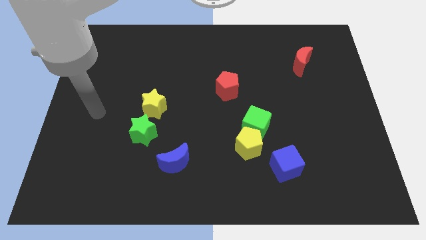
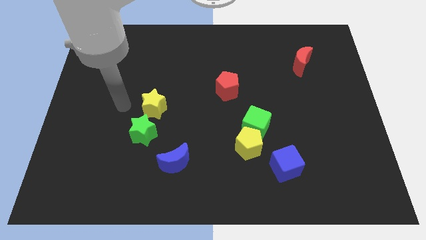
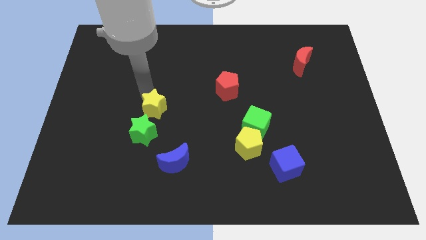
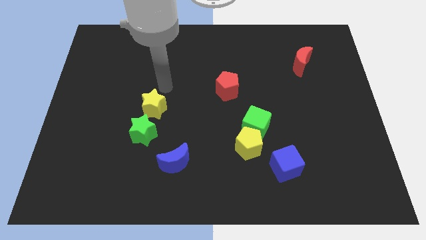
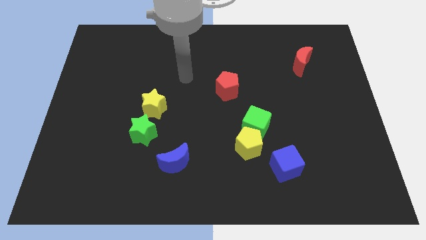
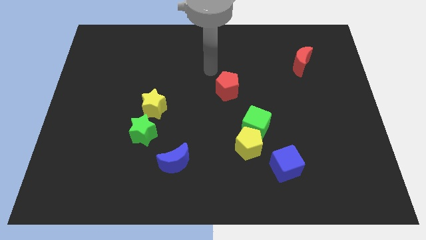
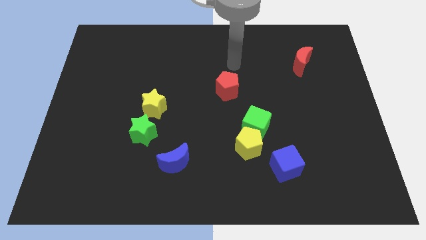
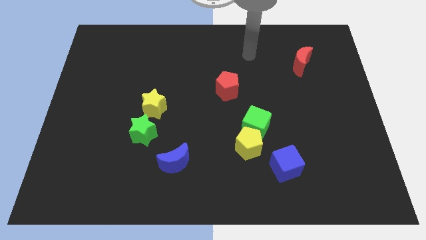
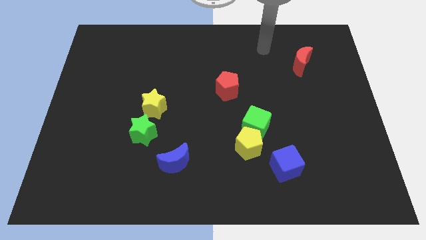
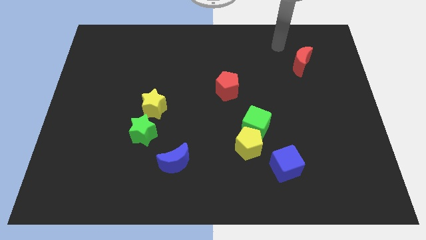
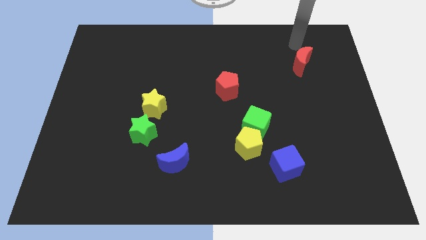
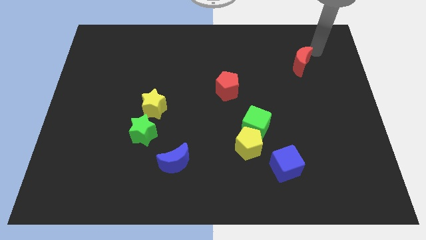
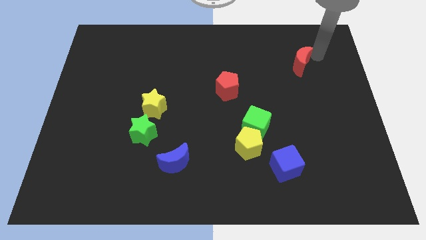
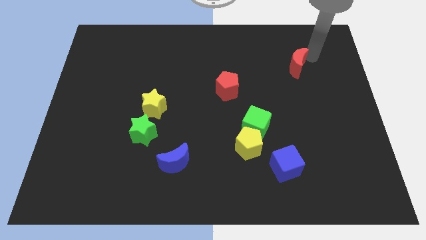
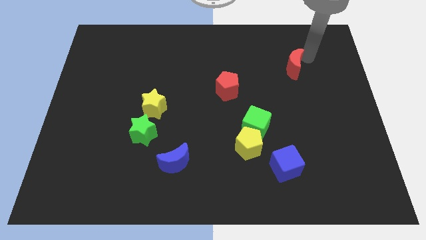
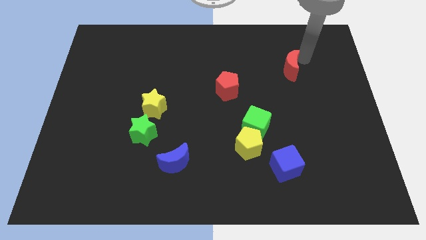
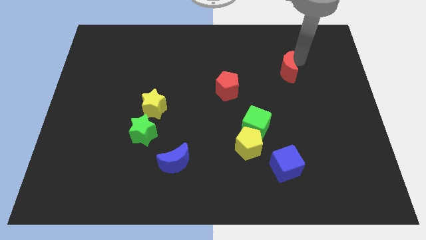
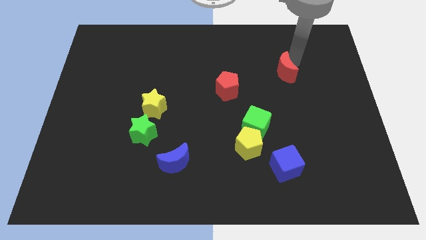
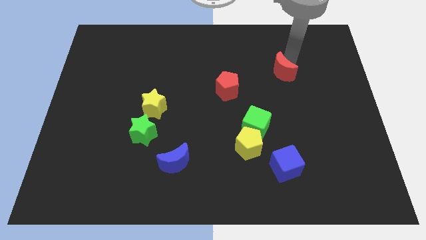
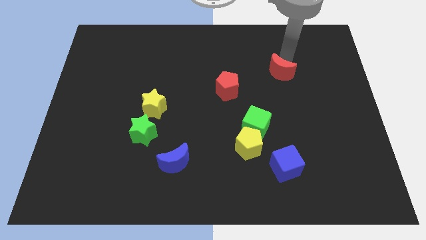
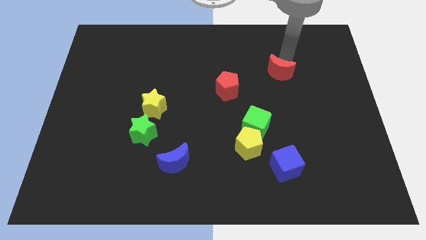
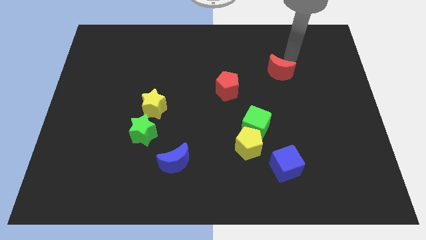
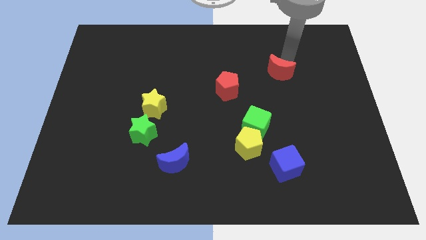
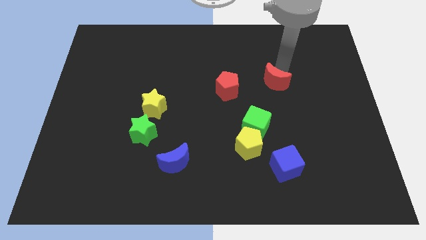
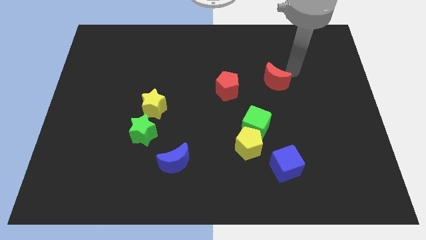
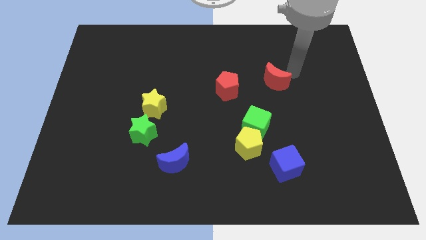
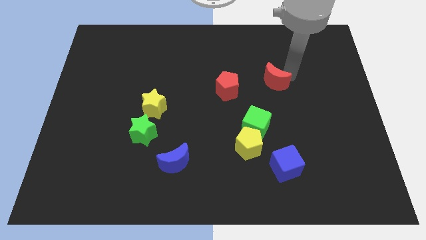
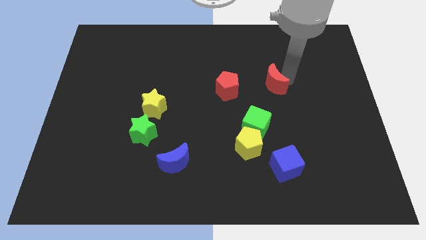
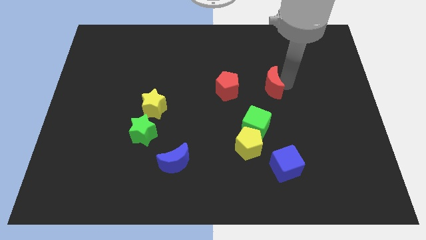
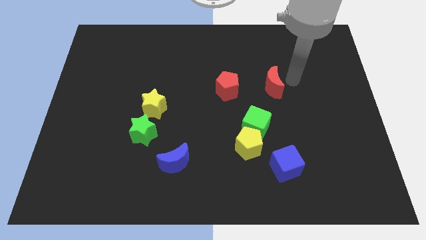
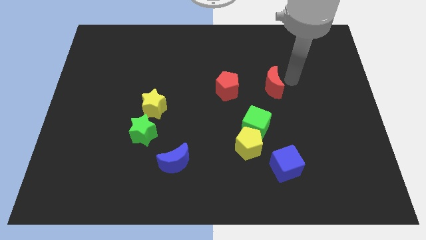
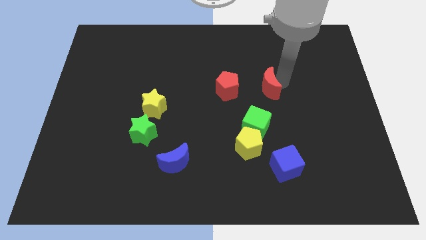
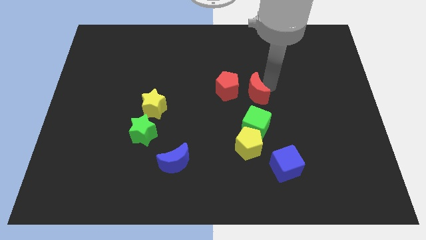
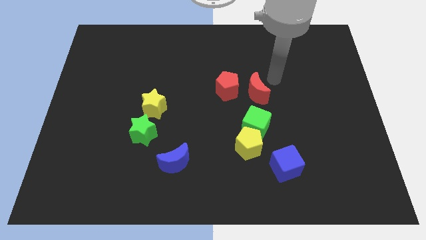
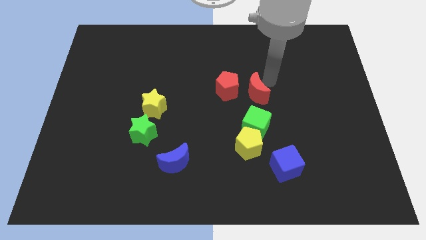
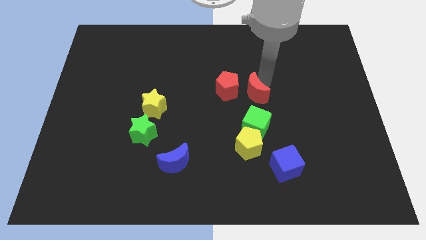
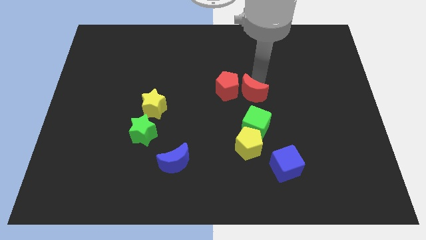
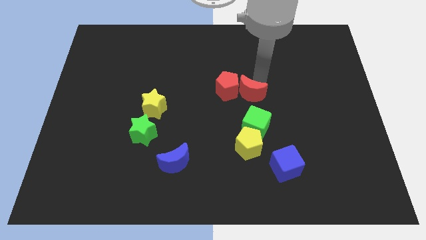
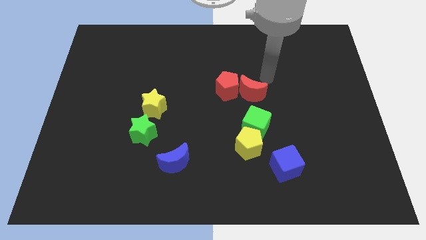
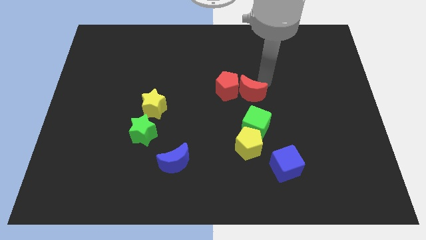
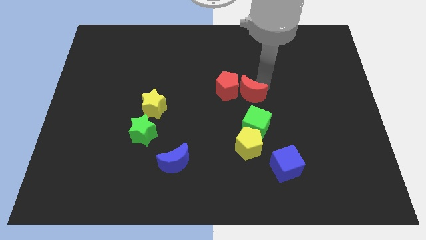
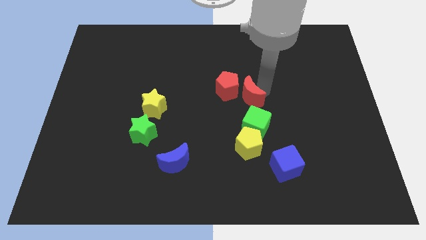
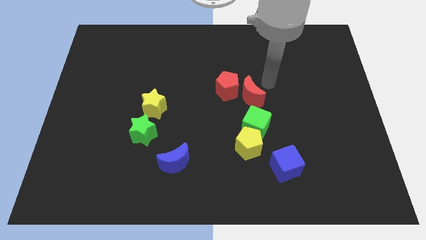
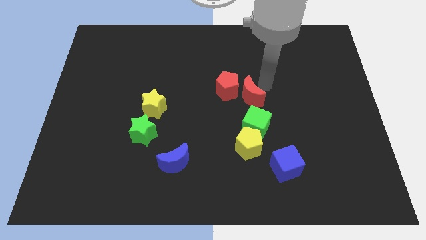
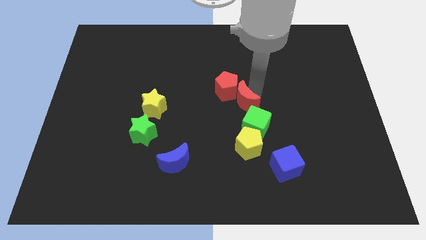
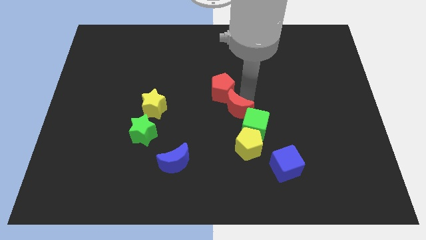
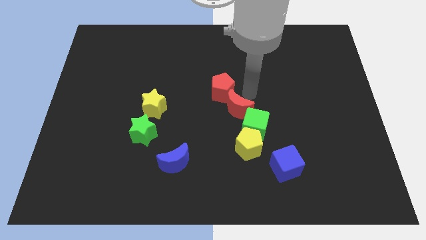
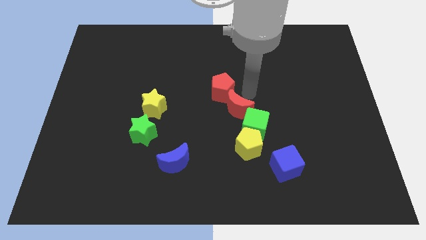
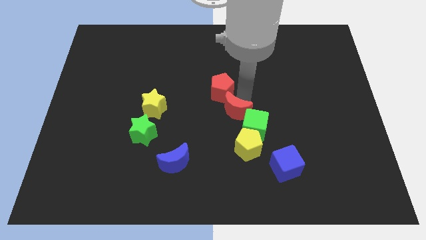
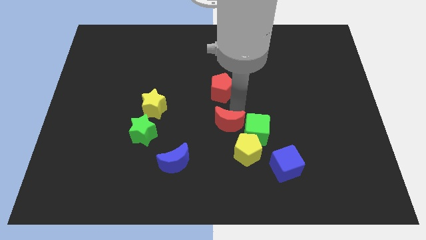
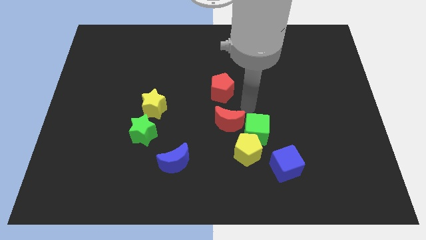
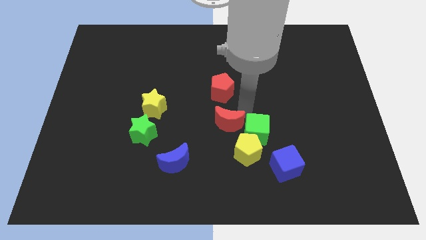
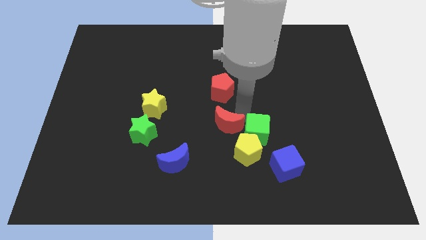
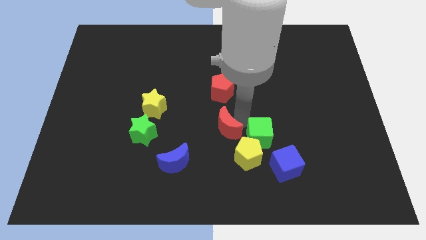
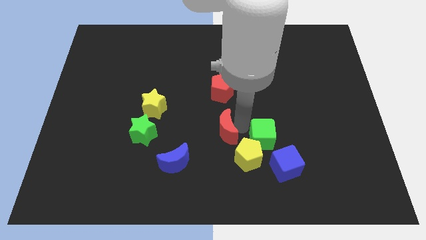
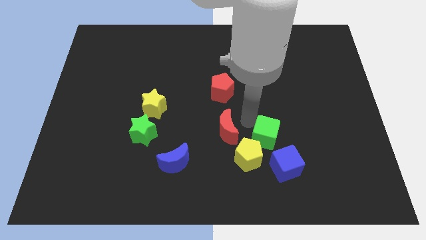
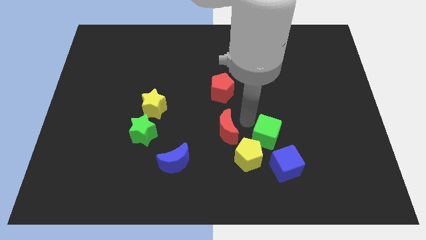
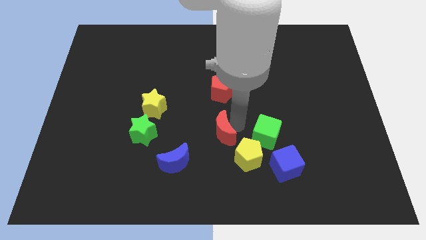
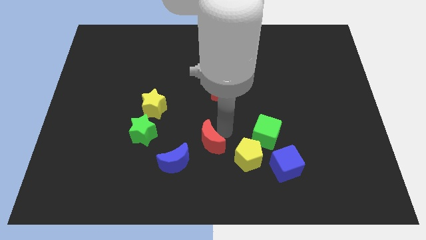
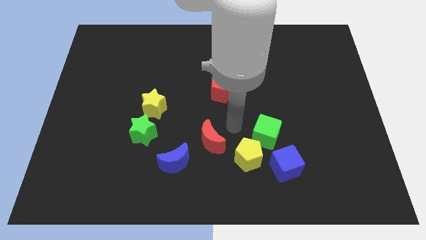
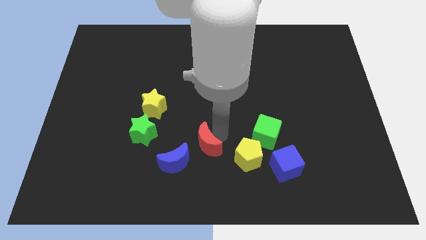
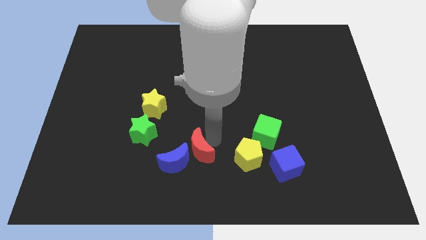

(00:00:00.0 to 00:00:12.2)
move the red moon close to the blue moon

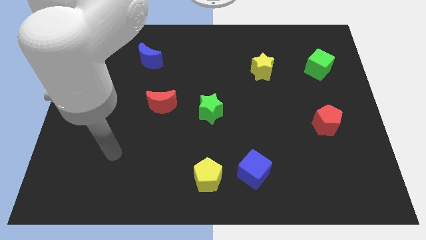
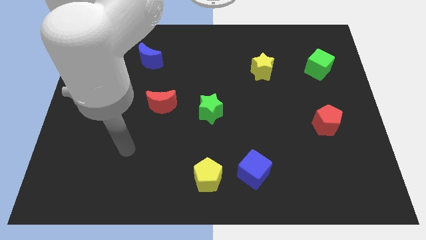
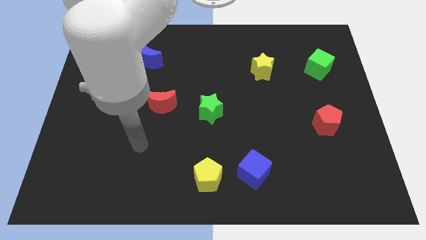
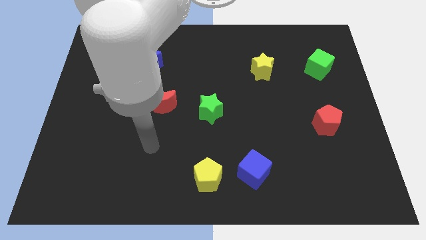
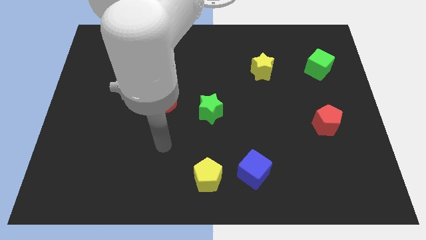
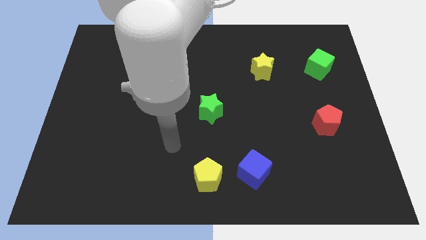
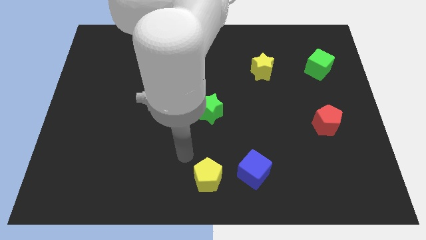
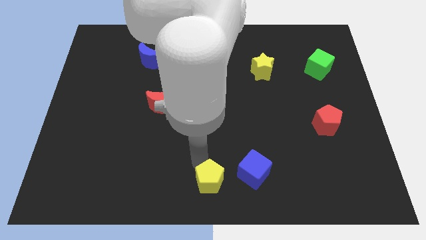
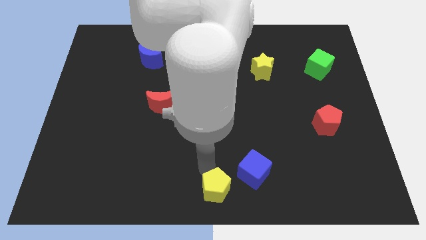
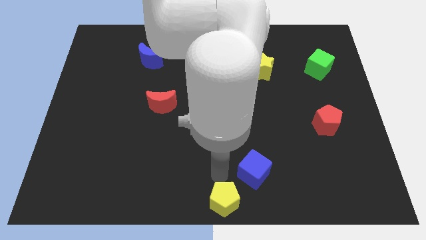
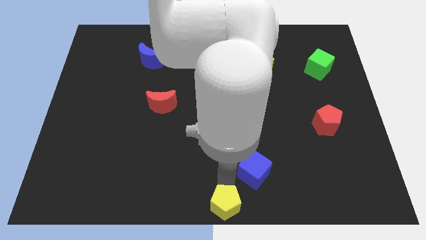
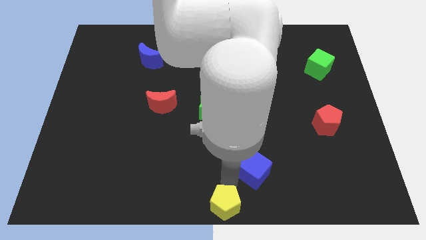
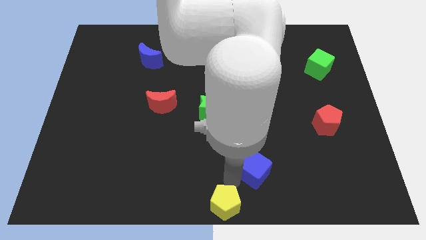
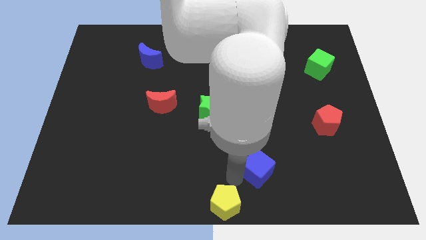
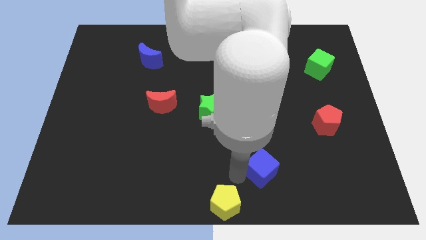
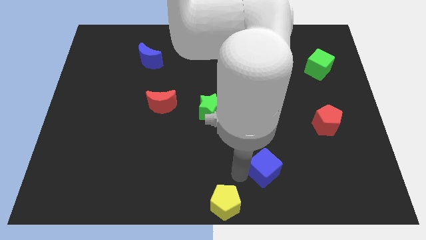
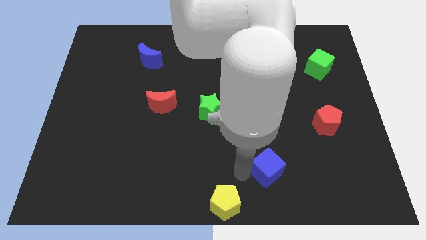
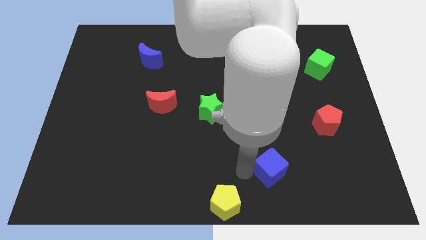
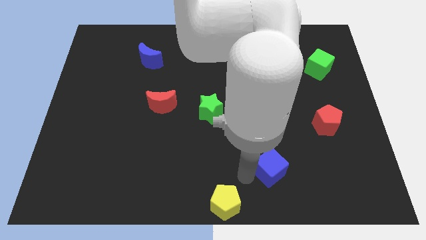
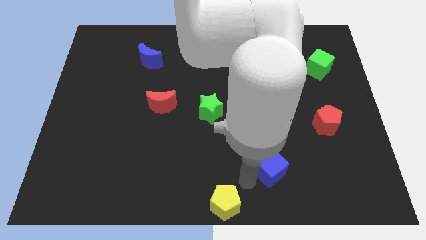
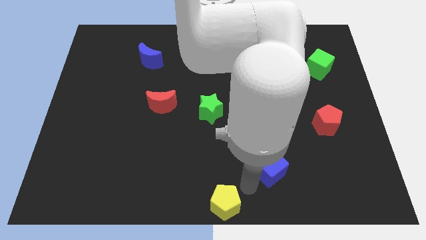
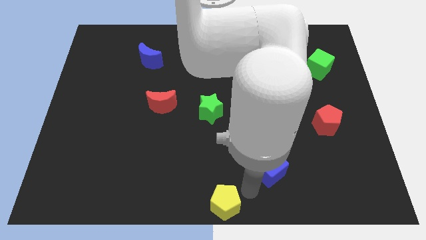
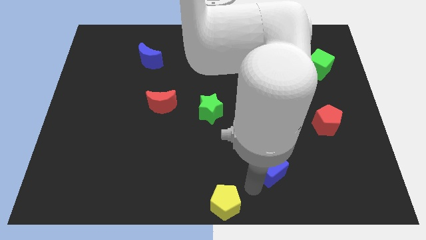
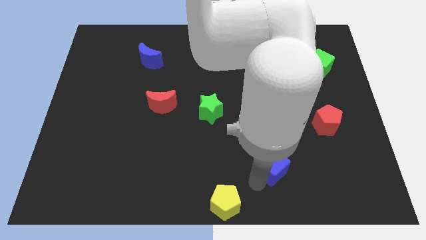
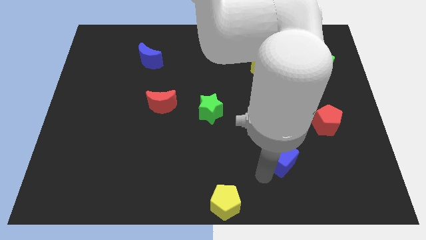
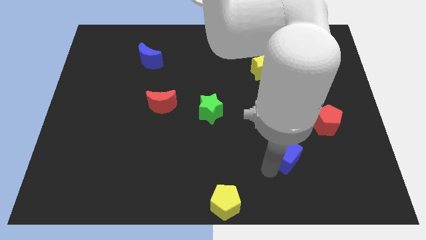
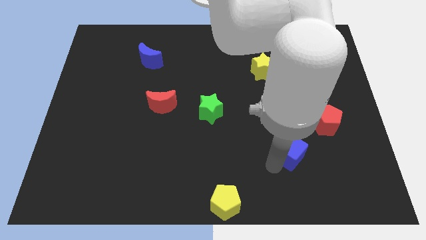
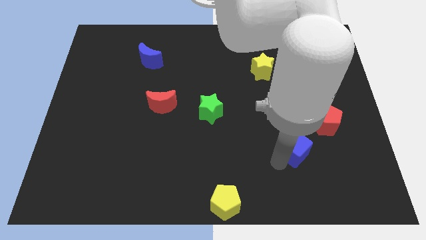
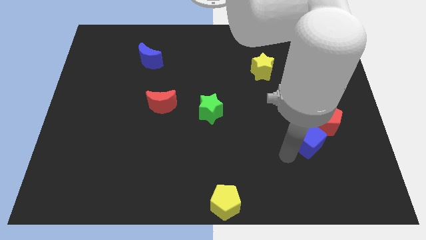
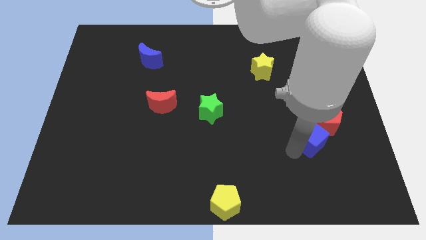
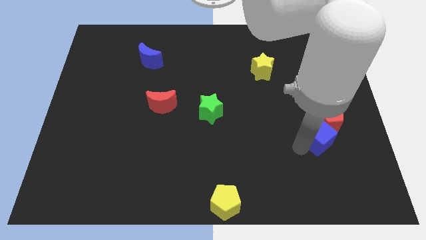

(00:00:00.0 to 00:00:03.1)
put the blue cube towards the red pentagon
